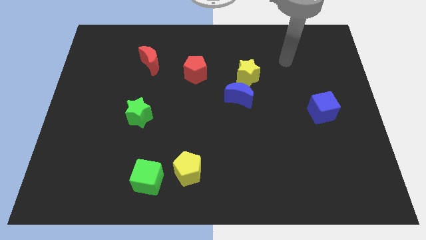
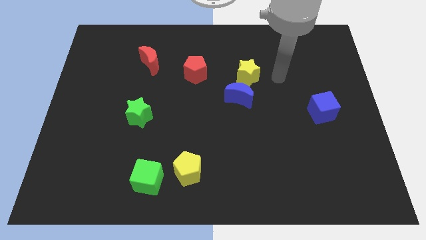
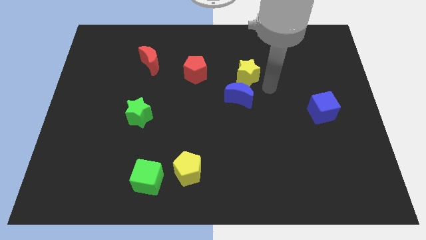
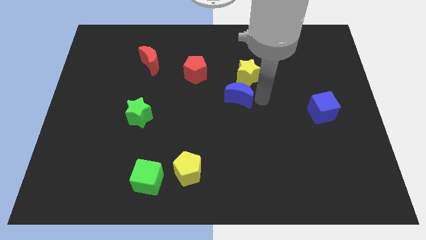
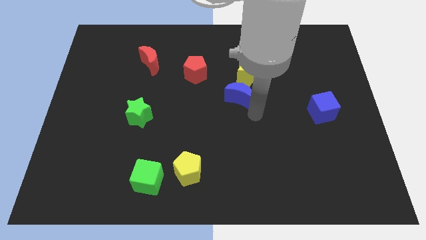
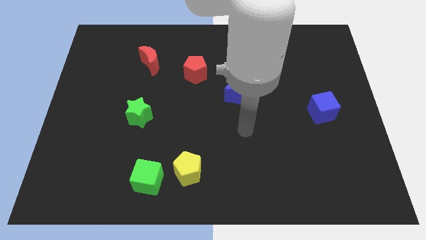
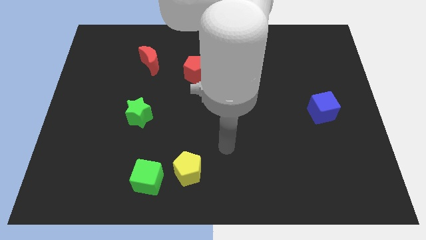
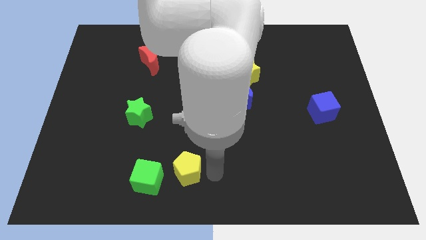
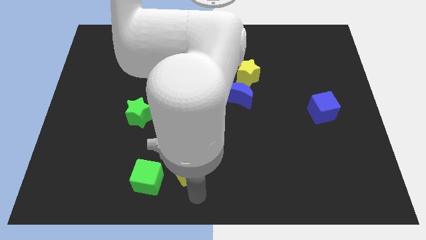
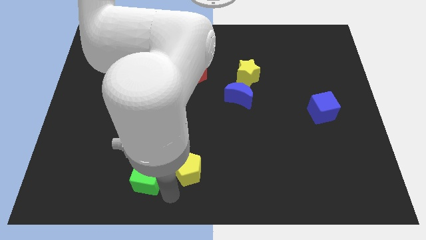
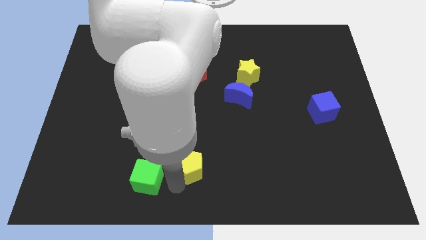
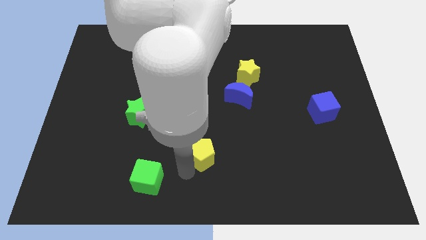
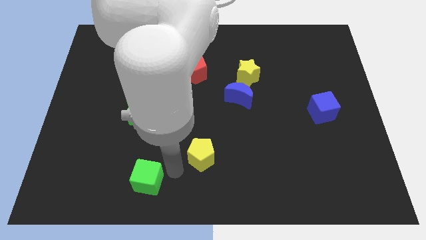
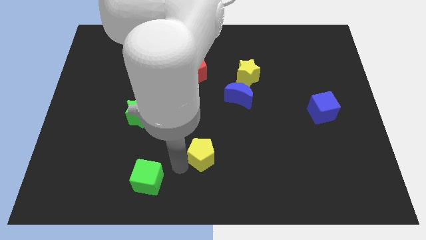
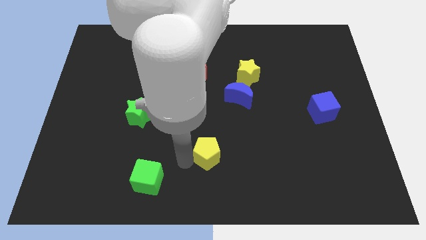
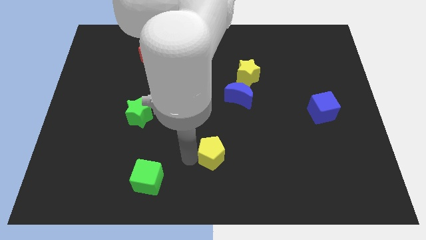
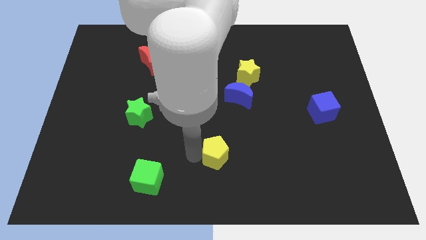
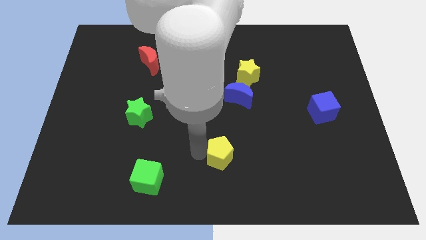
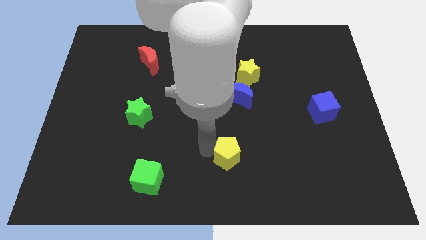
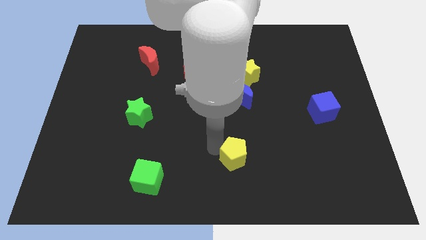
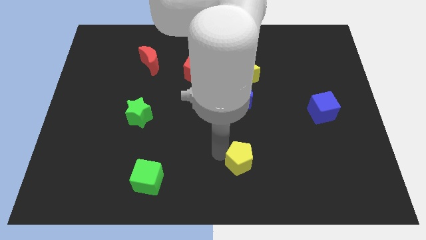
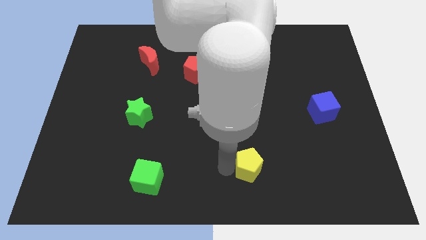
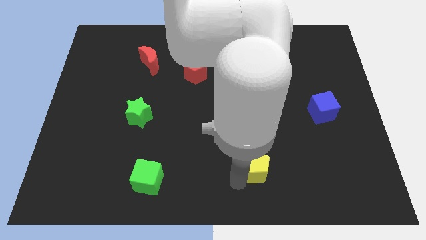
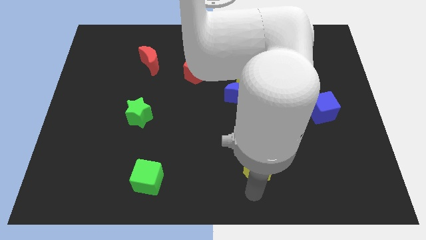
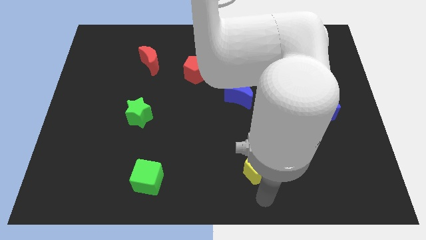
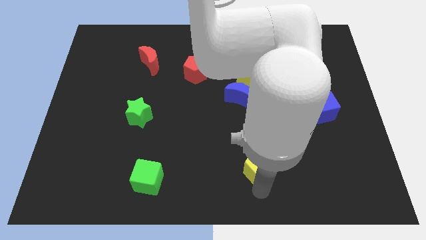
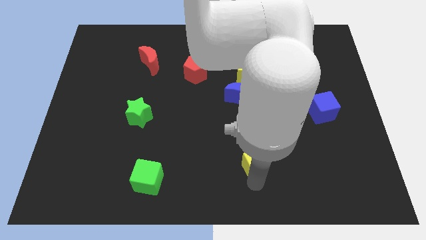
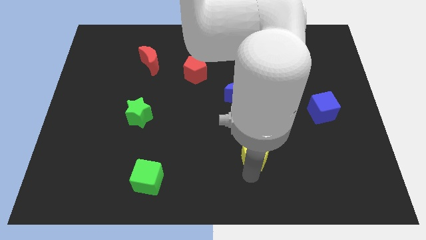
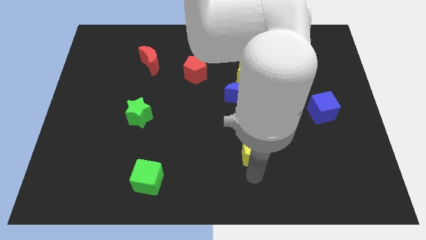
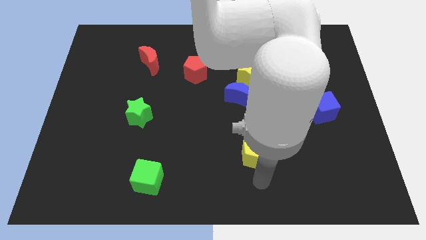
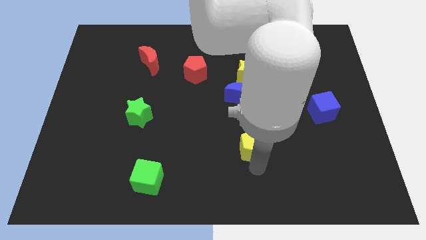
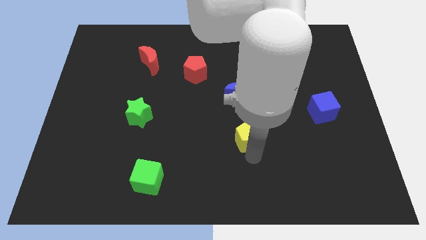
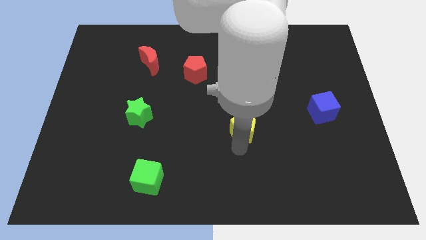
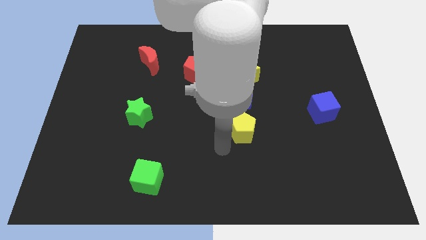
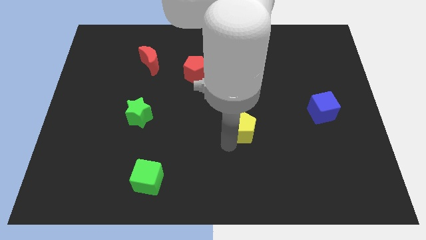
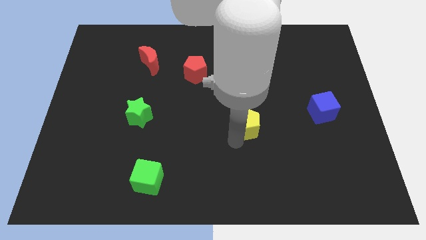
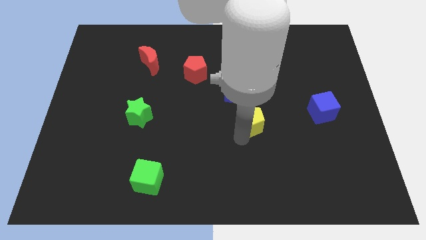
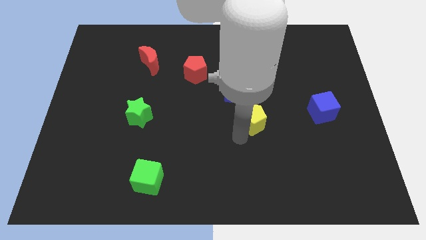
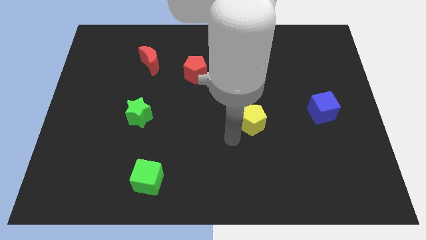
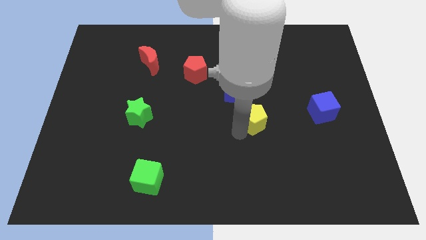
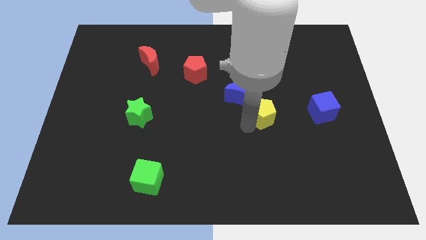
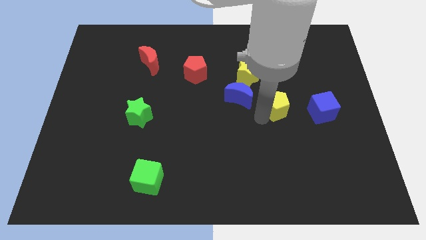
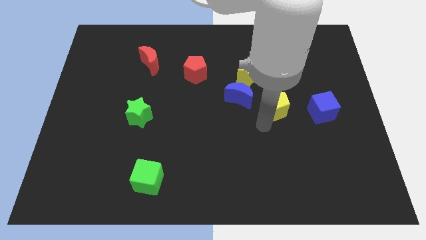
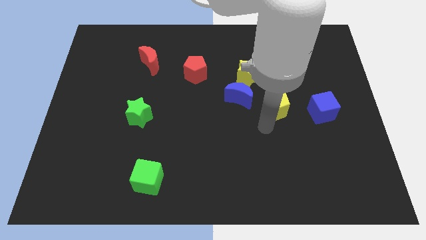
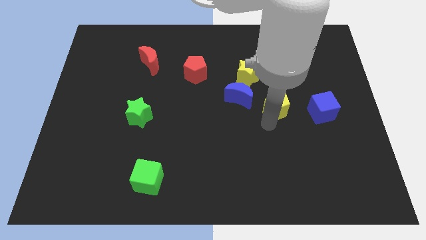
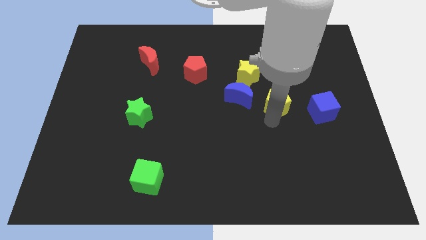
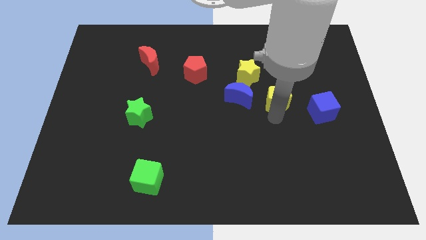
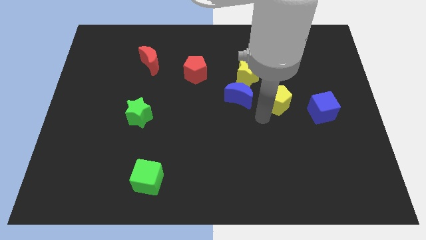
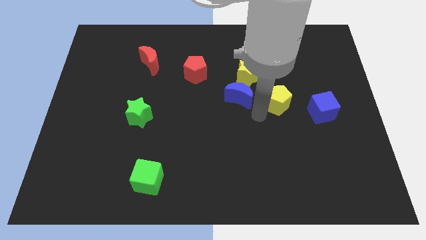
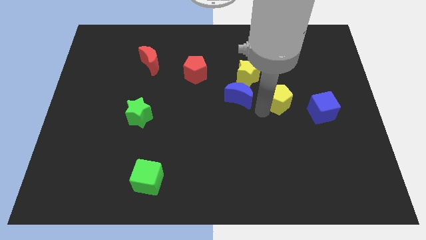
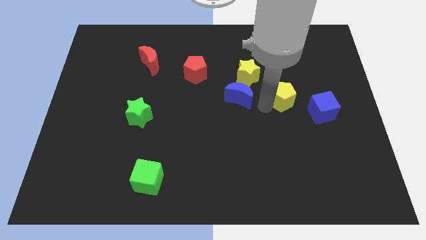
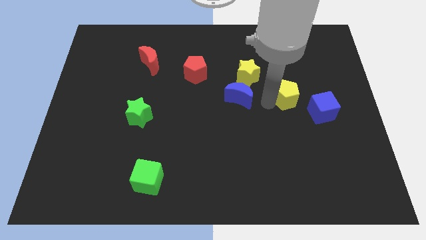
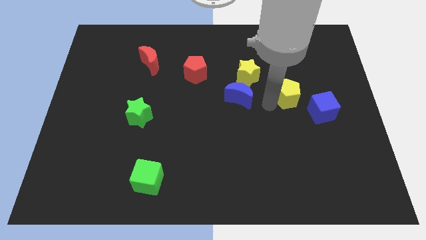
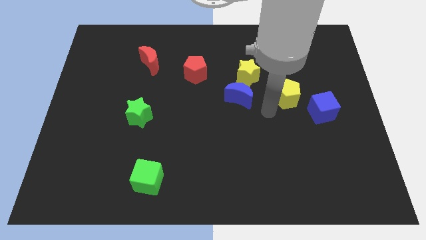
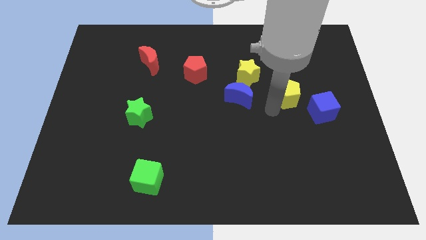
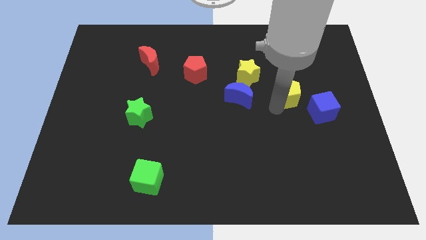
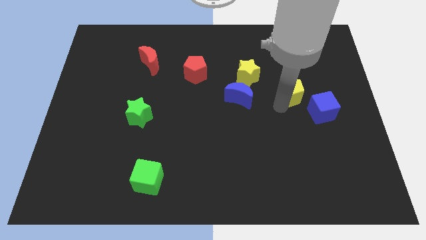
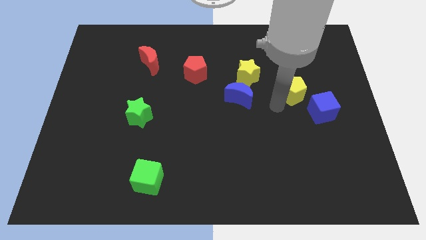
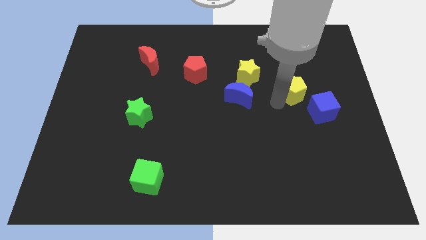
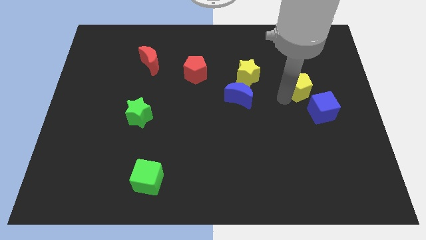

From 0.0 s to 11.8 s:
move the yellow pentagon to the top side of the blue cube

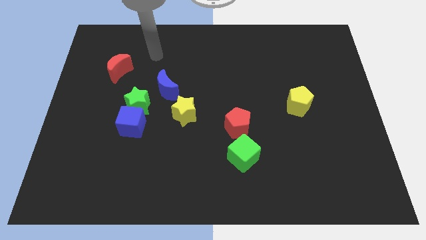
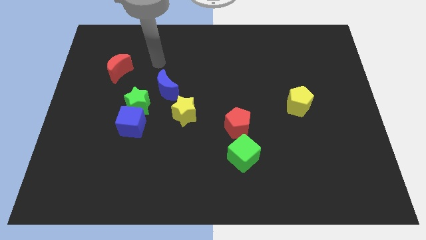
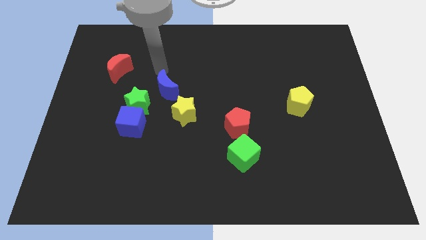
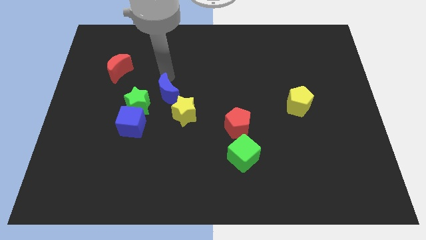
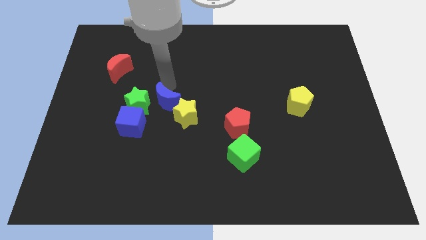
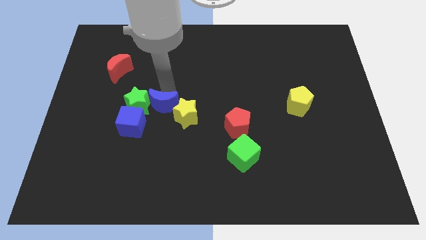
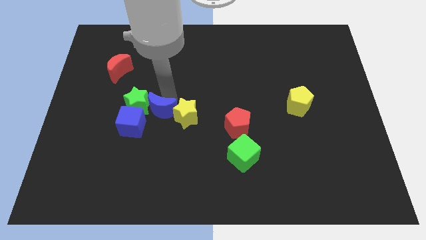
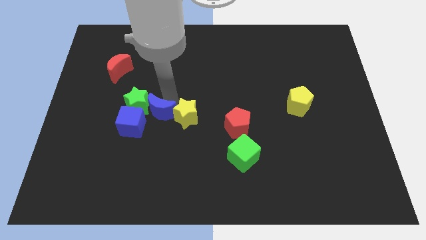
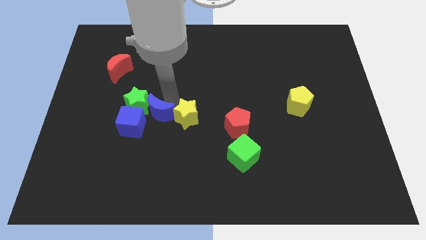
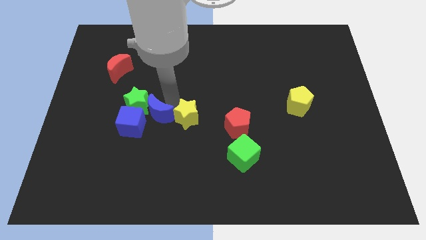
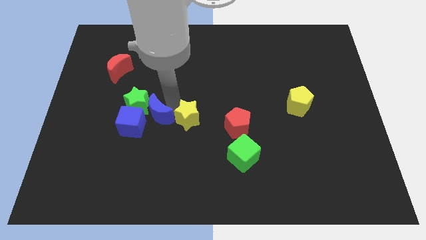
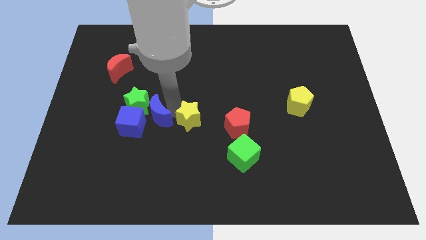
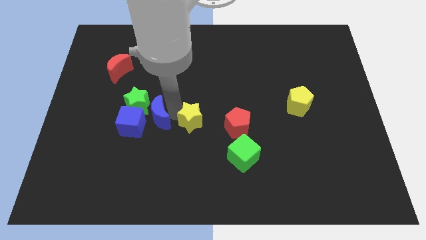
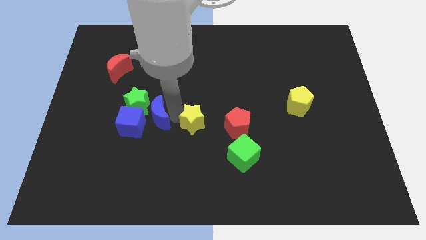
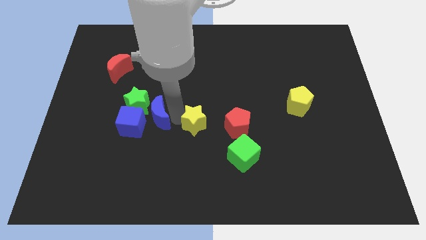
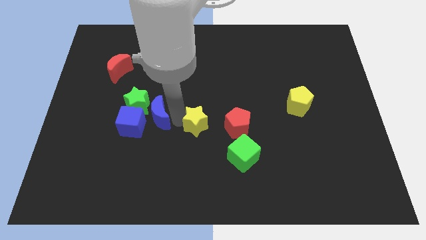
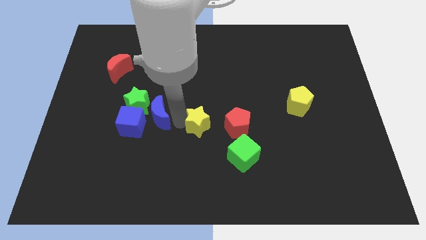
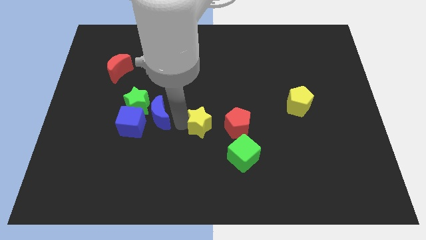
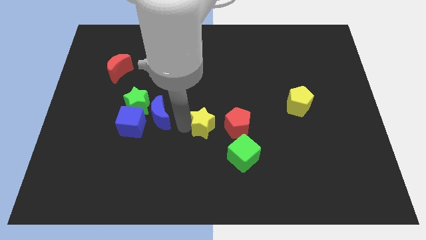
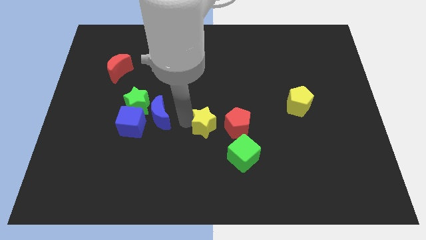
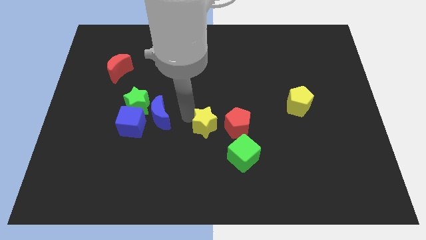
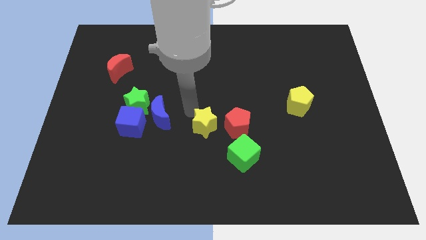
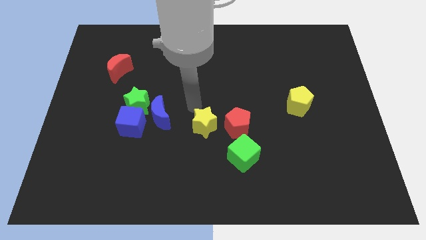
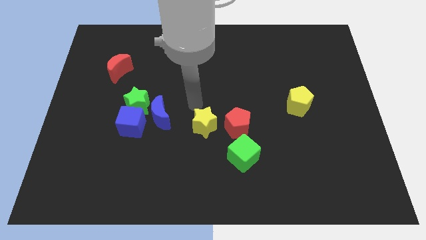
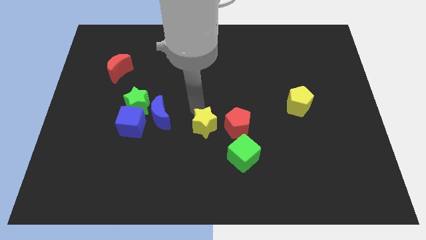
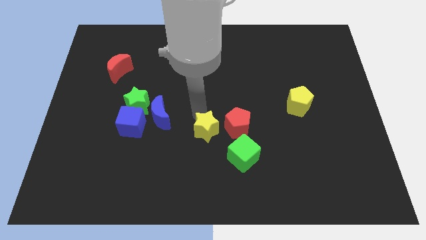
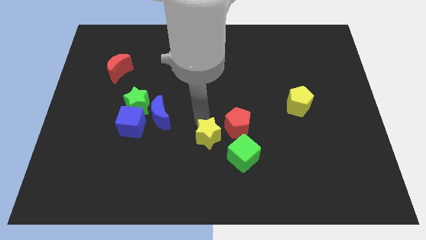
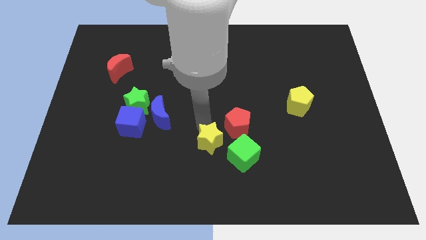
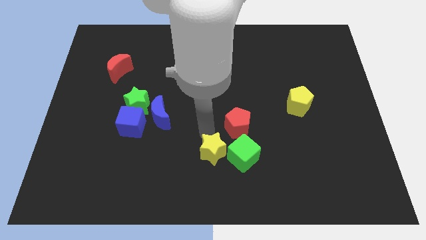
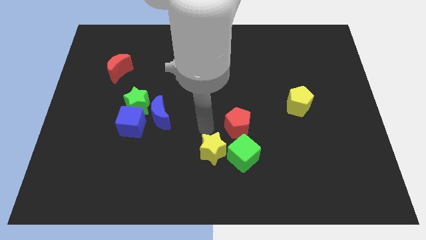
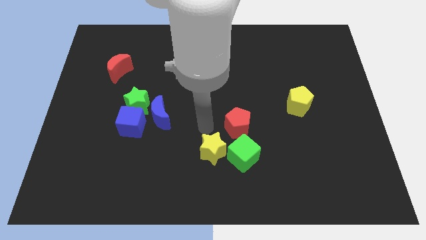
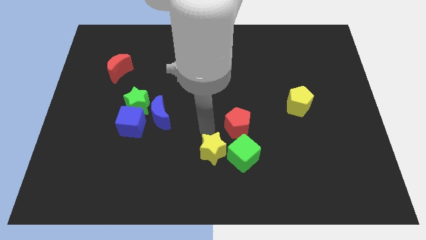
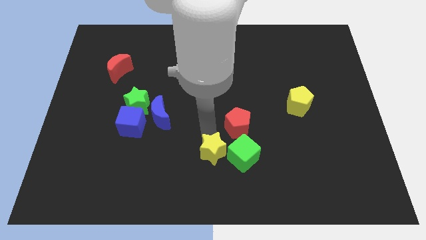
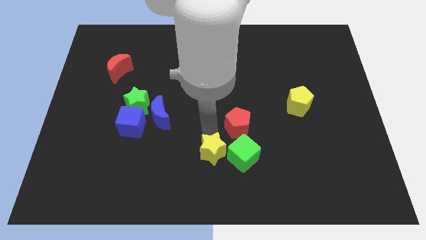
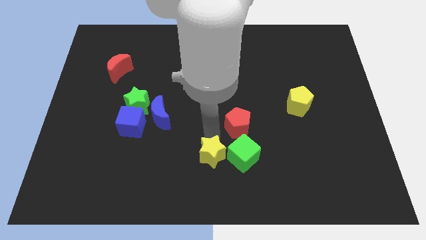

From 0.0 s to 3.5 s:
push the yellow star to the bottom left side of the green cube
